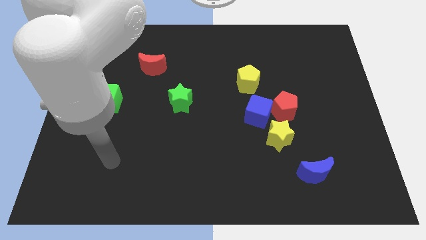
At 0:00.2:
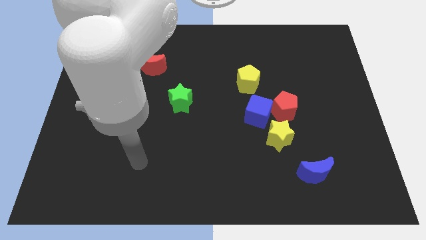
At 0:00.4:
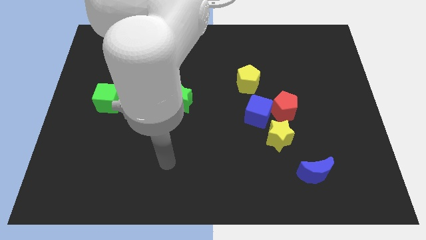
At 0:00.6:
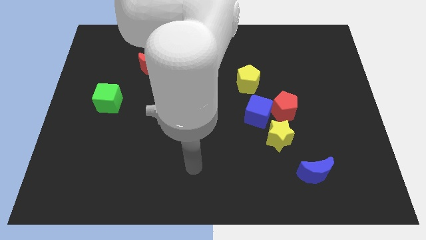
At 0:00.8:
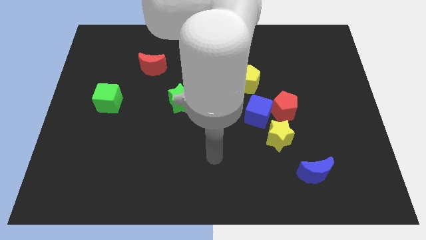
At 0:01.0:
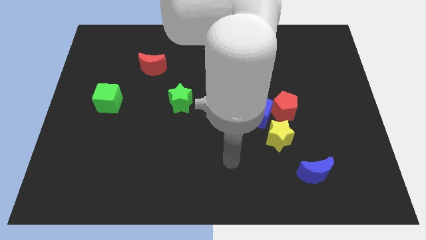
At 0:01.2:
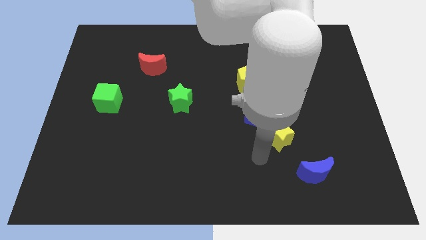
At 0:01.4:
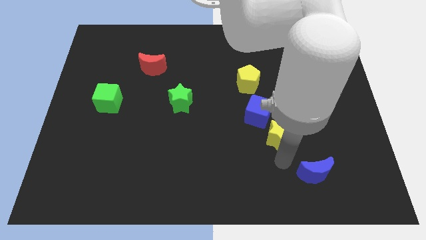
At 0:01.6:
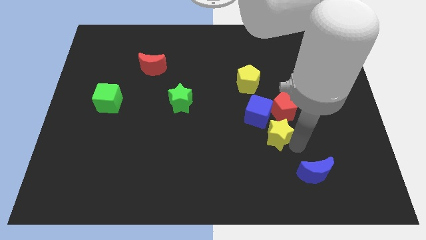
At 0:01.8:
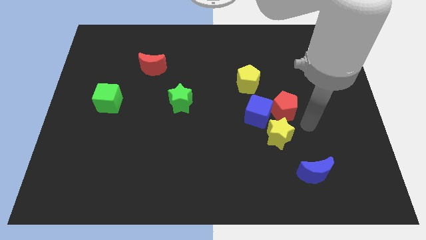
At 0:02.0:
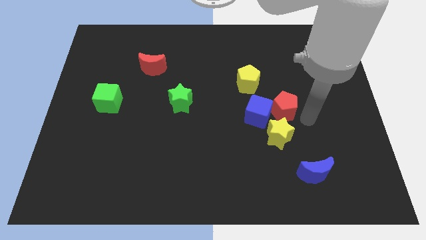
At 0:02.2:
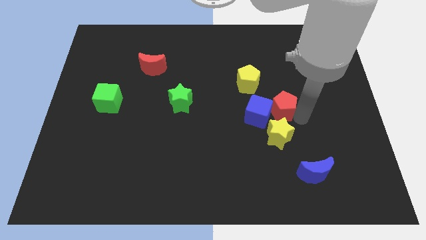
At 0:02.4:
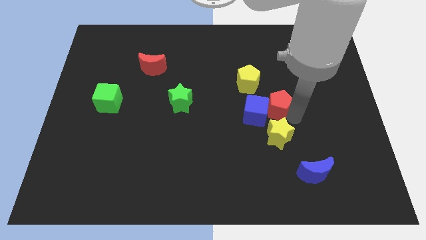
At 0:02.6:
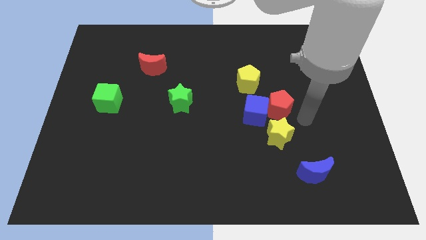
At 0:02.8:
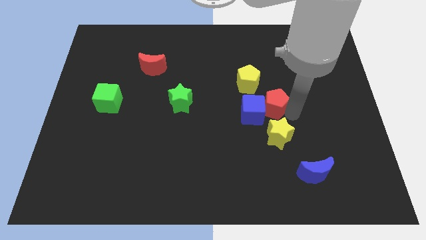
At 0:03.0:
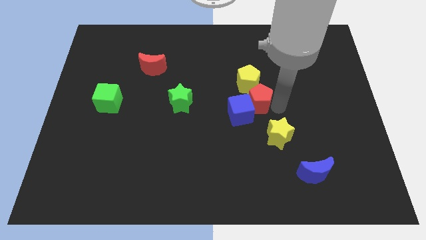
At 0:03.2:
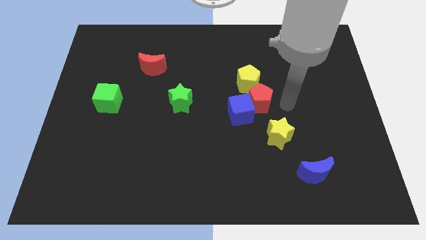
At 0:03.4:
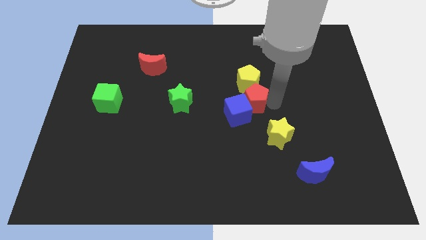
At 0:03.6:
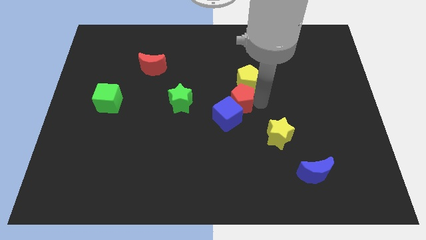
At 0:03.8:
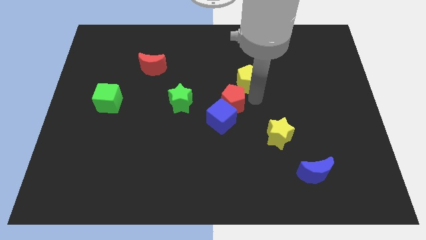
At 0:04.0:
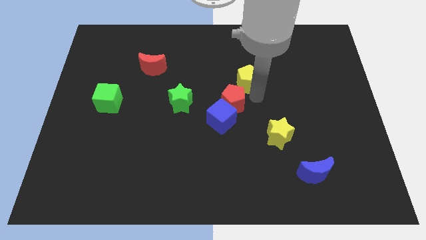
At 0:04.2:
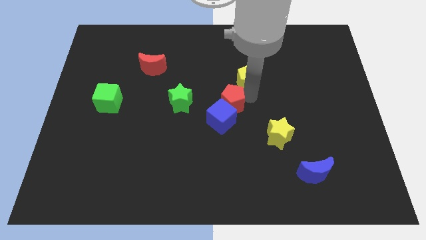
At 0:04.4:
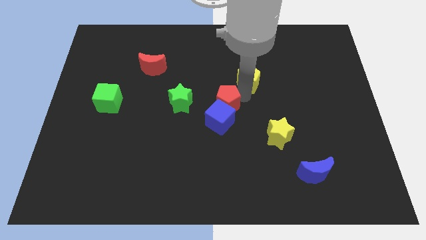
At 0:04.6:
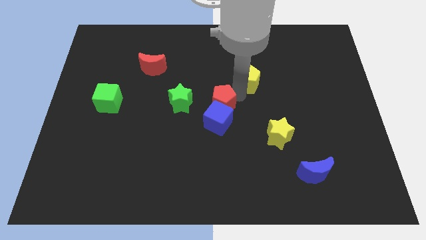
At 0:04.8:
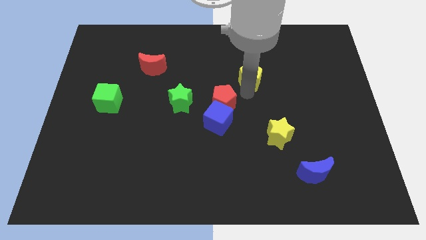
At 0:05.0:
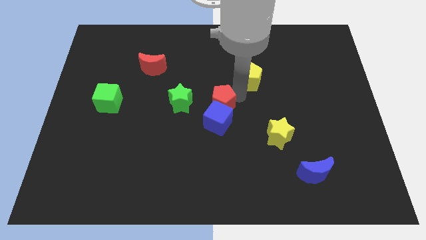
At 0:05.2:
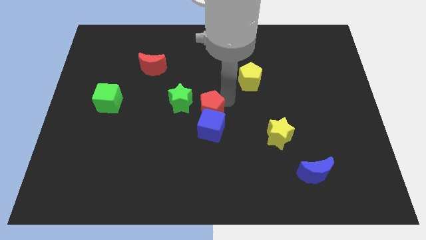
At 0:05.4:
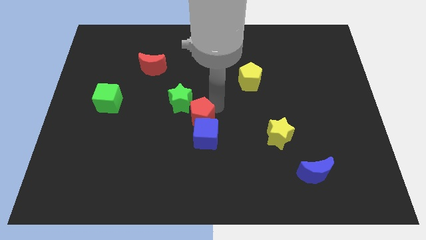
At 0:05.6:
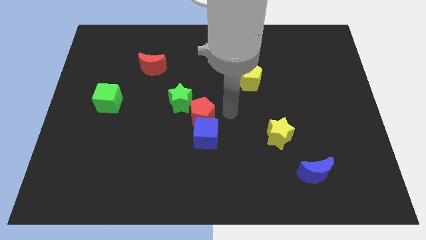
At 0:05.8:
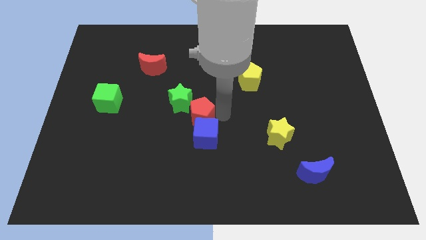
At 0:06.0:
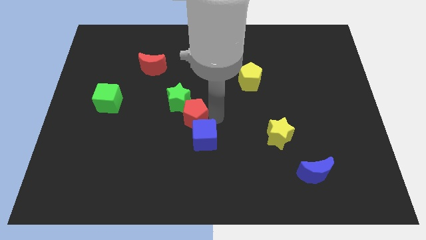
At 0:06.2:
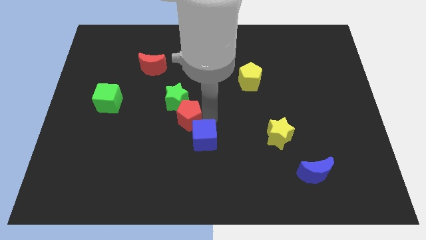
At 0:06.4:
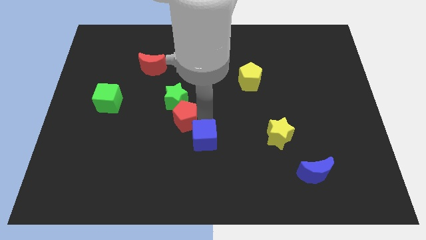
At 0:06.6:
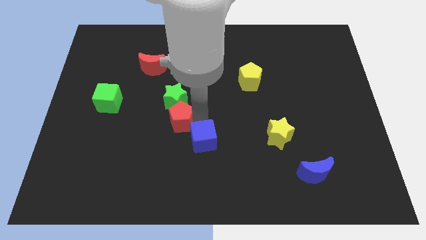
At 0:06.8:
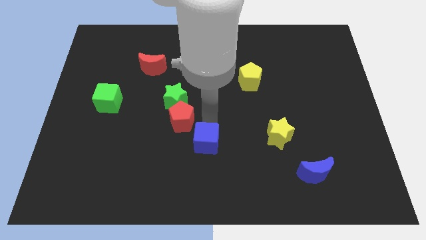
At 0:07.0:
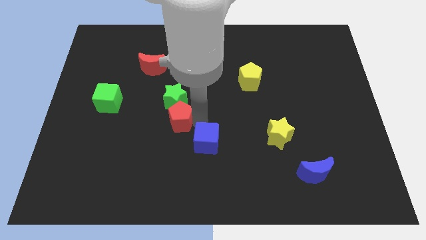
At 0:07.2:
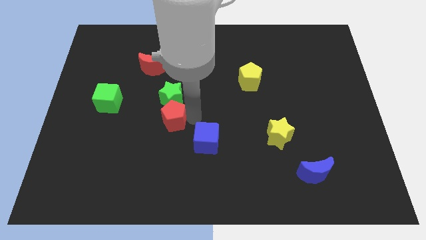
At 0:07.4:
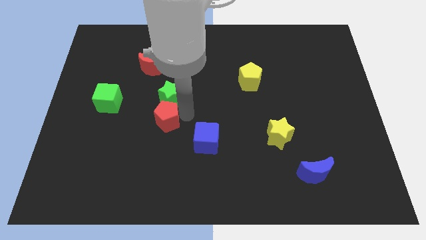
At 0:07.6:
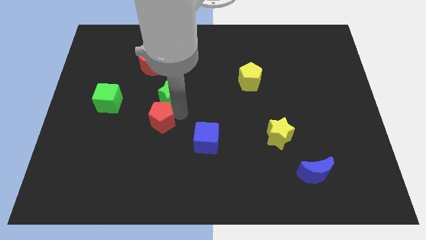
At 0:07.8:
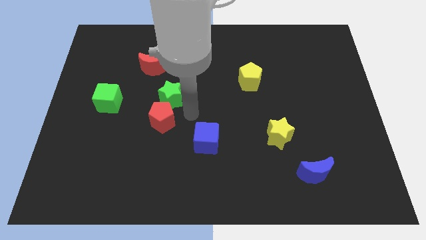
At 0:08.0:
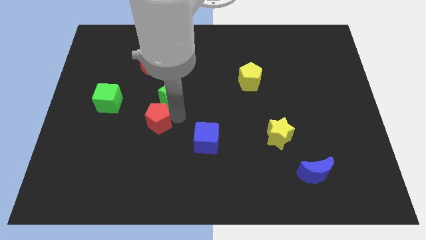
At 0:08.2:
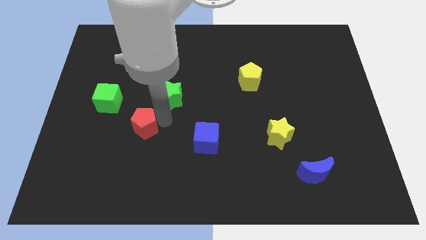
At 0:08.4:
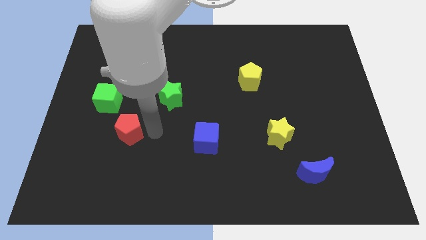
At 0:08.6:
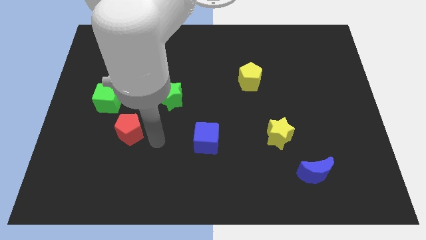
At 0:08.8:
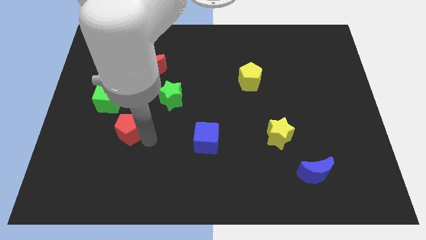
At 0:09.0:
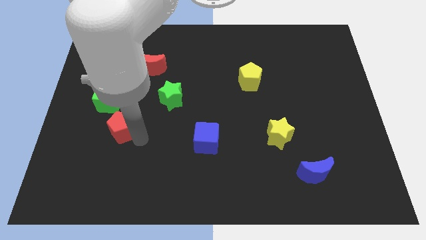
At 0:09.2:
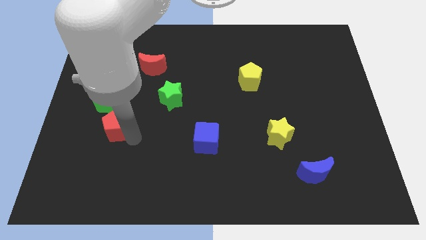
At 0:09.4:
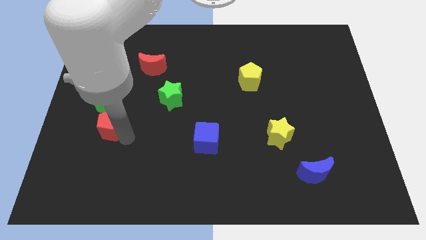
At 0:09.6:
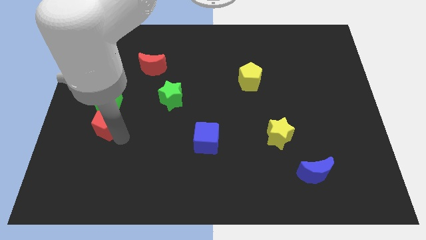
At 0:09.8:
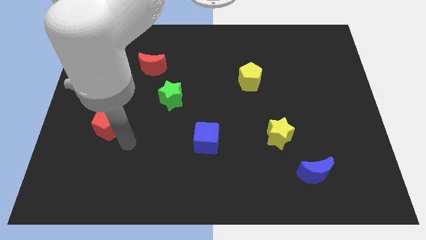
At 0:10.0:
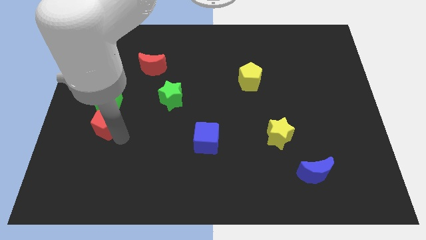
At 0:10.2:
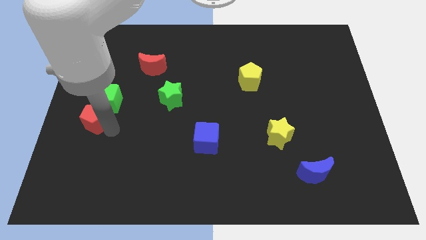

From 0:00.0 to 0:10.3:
push the red pentagon to the left side

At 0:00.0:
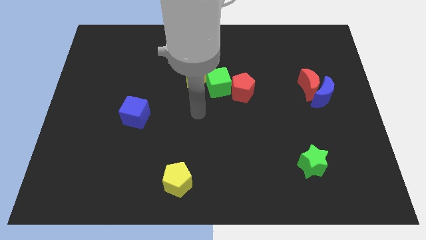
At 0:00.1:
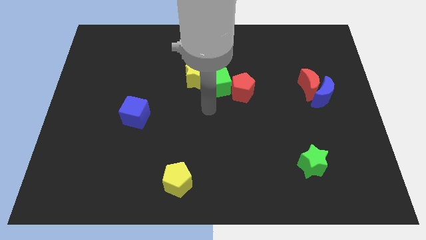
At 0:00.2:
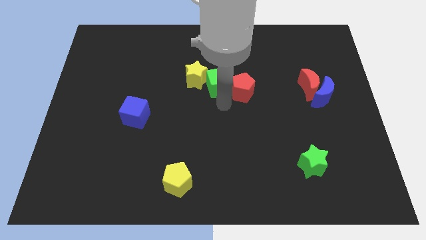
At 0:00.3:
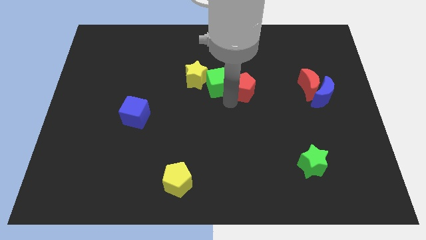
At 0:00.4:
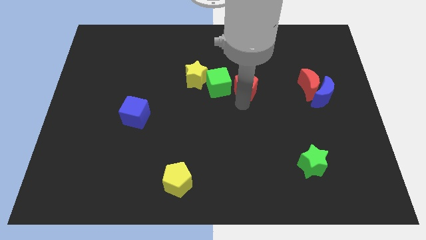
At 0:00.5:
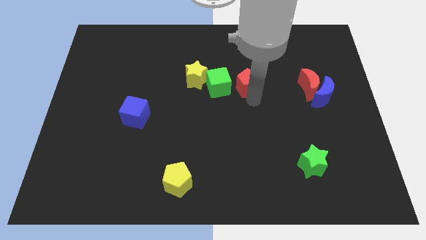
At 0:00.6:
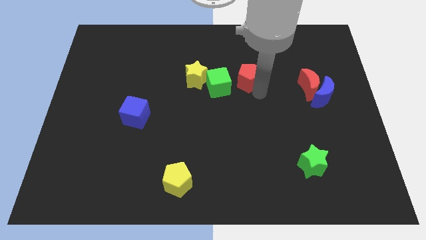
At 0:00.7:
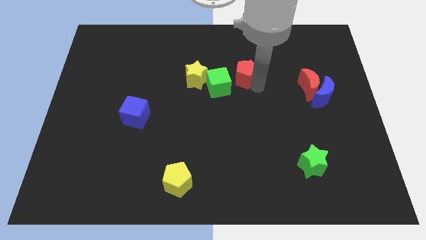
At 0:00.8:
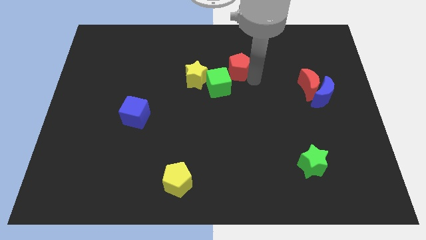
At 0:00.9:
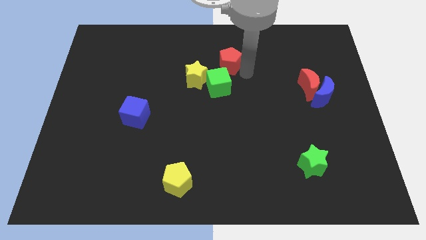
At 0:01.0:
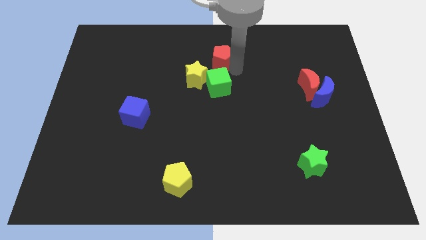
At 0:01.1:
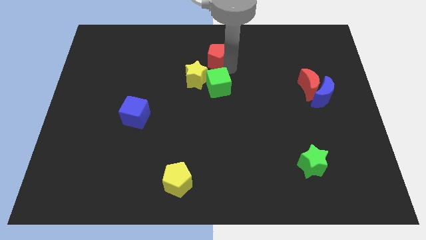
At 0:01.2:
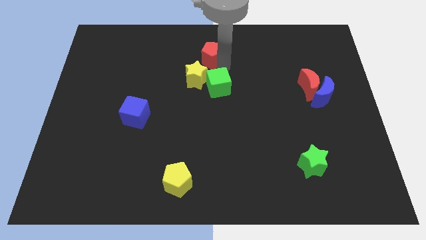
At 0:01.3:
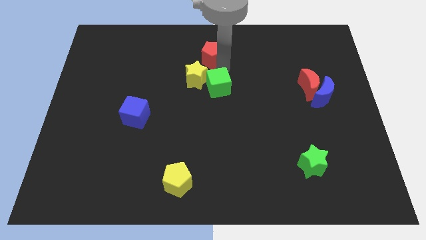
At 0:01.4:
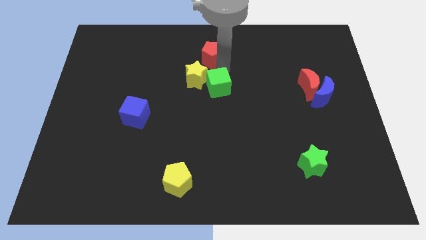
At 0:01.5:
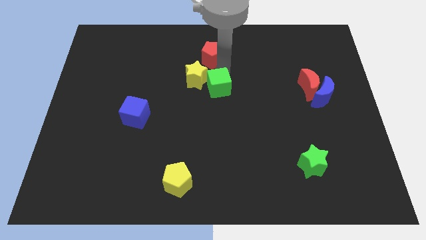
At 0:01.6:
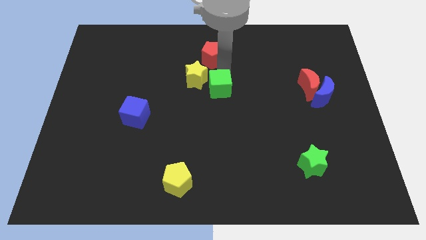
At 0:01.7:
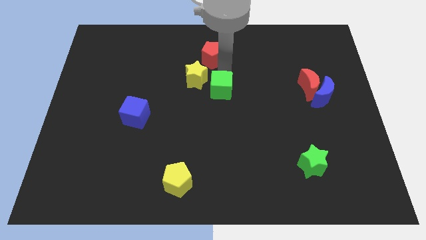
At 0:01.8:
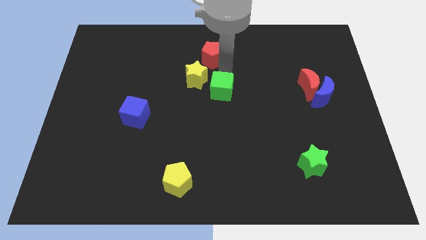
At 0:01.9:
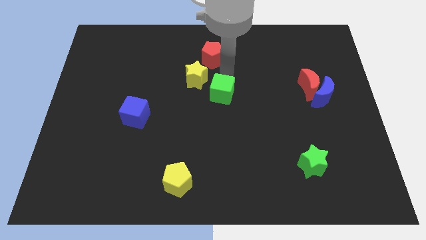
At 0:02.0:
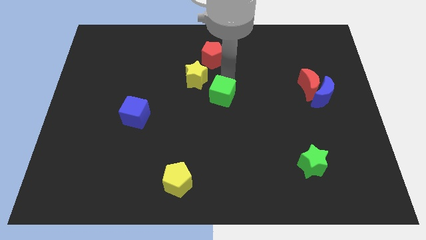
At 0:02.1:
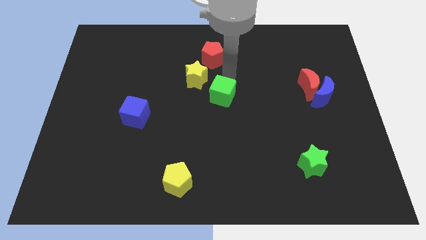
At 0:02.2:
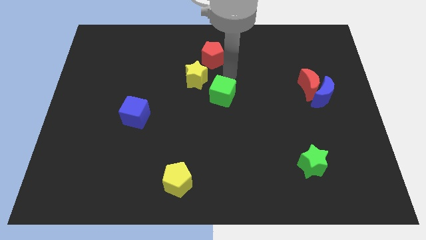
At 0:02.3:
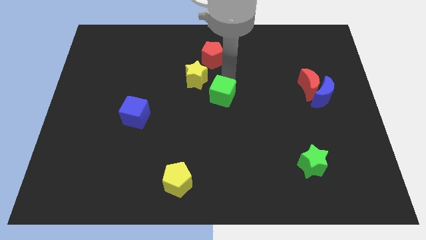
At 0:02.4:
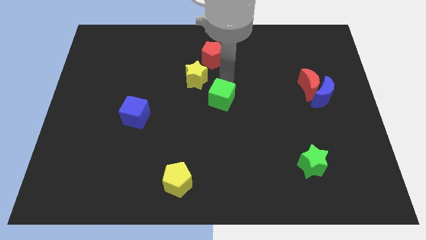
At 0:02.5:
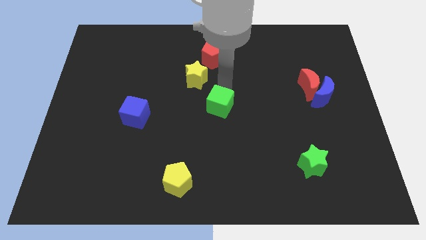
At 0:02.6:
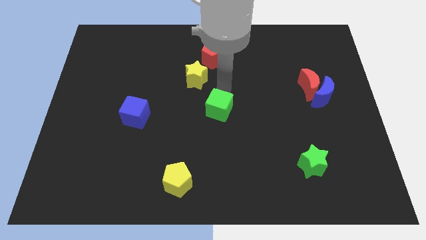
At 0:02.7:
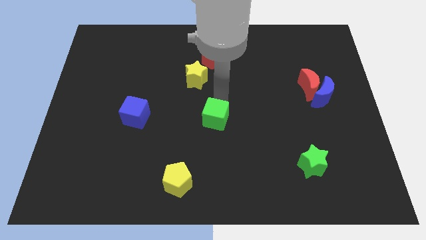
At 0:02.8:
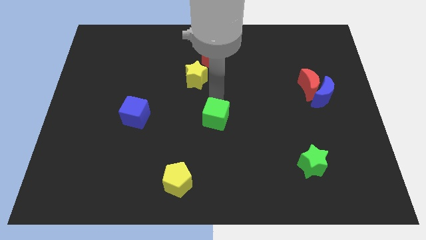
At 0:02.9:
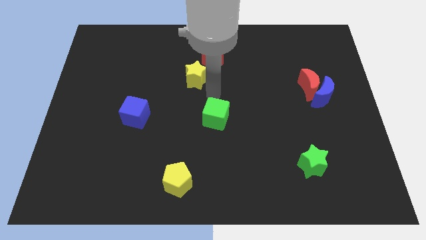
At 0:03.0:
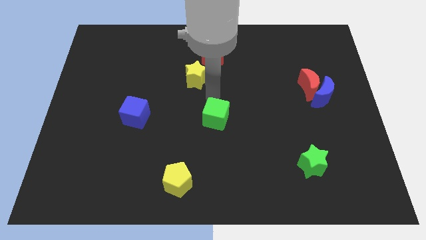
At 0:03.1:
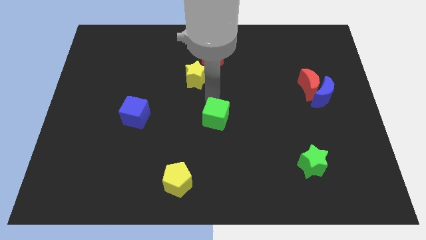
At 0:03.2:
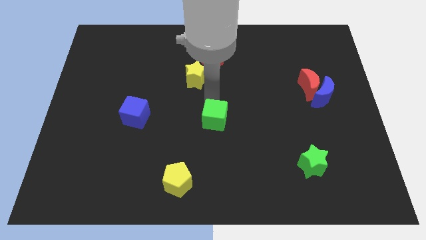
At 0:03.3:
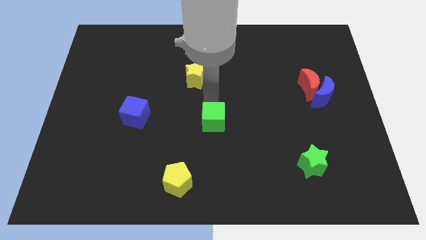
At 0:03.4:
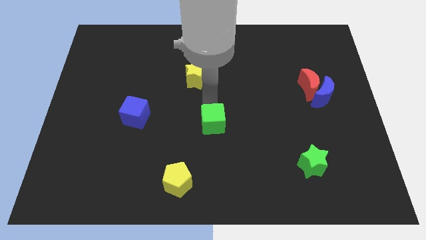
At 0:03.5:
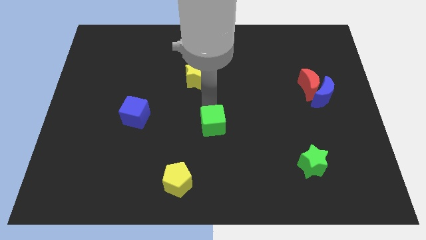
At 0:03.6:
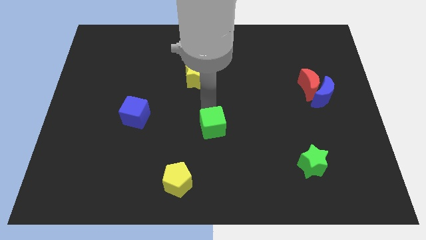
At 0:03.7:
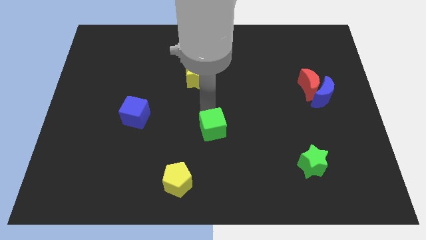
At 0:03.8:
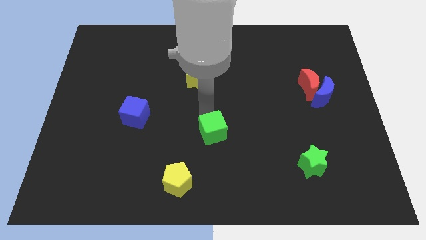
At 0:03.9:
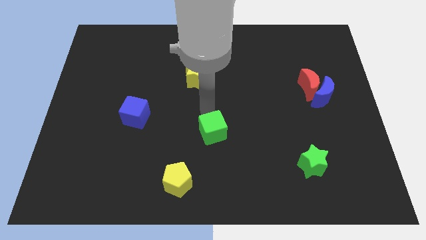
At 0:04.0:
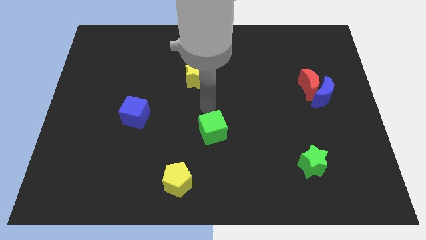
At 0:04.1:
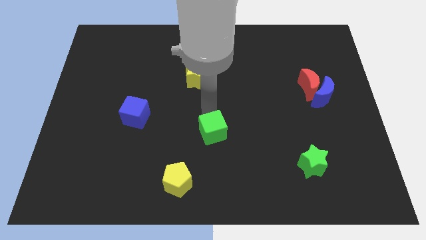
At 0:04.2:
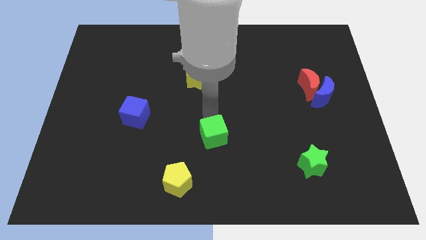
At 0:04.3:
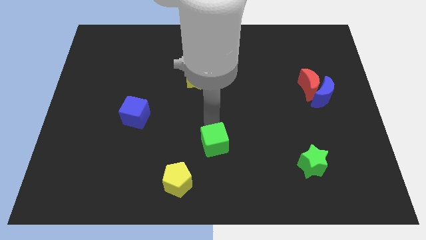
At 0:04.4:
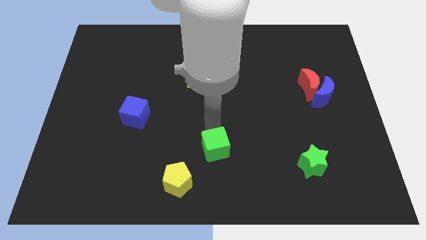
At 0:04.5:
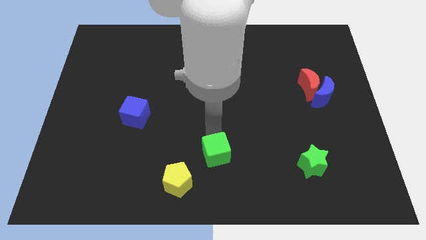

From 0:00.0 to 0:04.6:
put the green cube to the bottom side
